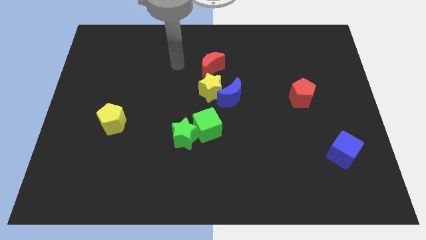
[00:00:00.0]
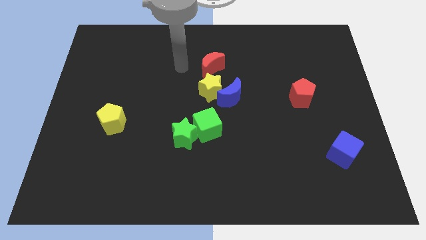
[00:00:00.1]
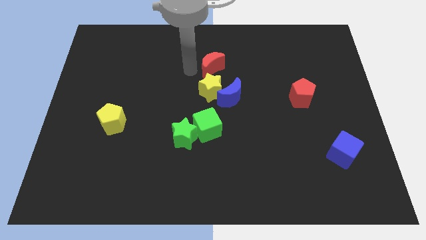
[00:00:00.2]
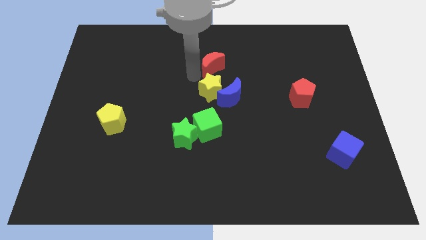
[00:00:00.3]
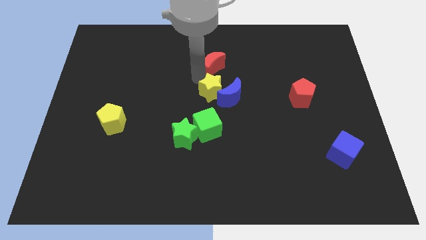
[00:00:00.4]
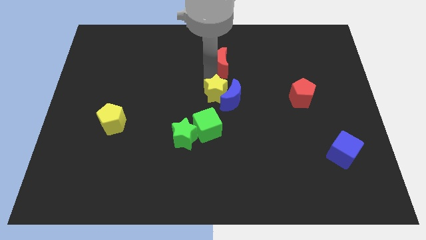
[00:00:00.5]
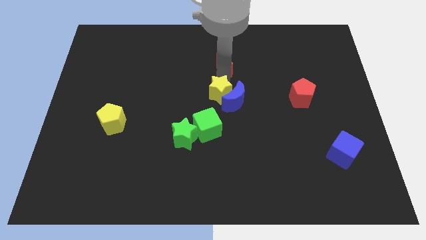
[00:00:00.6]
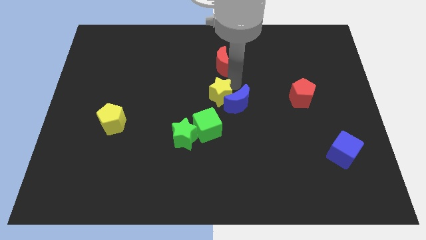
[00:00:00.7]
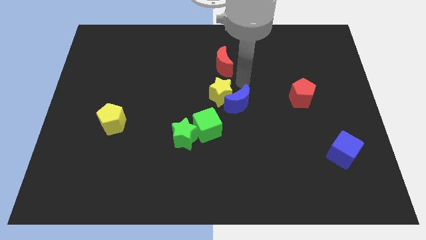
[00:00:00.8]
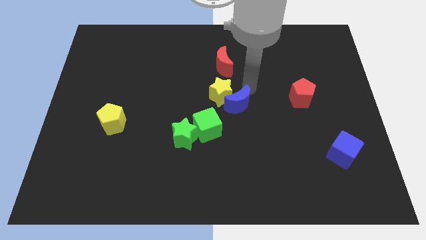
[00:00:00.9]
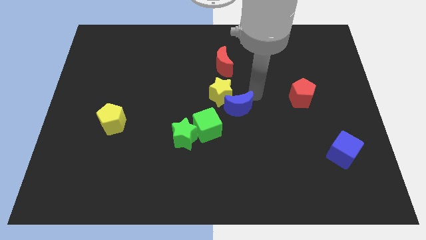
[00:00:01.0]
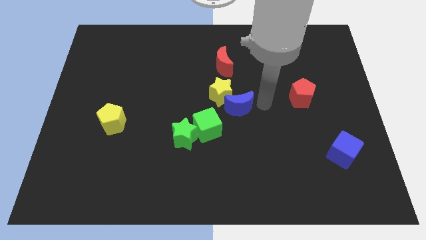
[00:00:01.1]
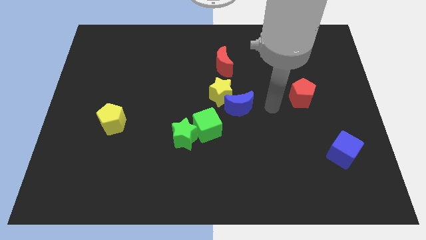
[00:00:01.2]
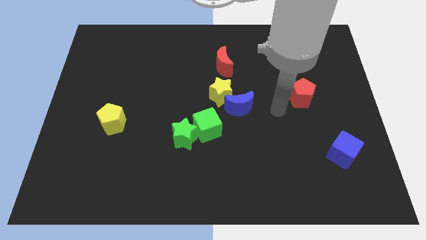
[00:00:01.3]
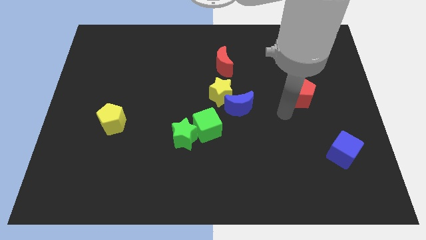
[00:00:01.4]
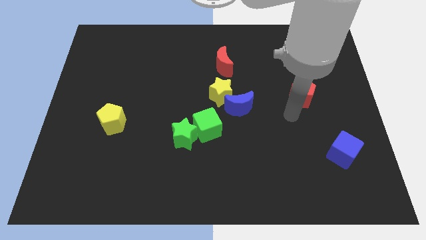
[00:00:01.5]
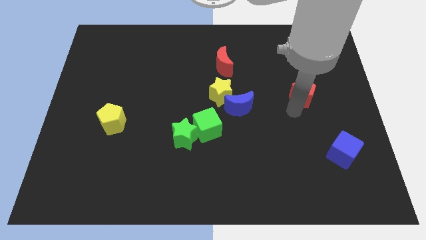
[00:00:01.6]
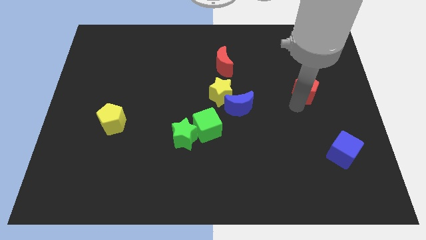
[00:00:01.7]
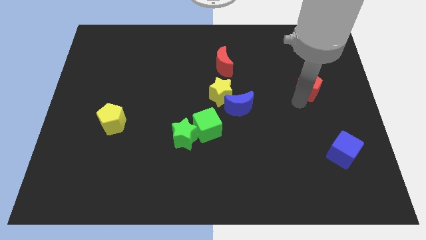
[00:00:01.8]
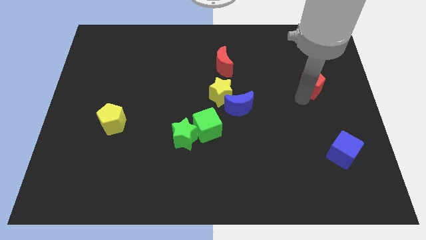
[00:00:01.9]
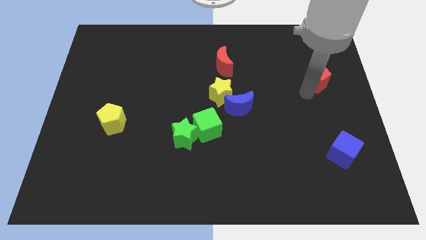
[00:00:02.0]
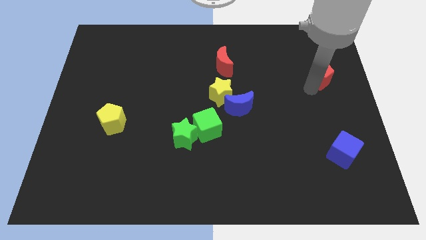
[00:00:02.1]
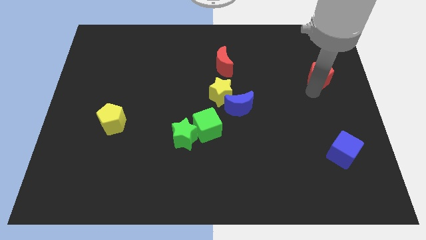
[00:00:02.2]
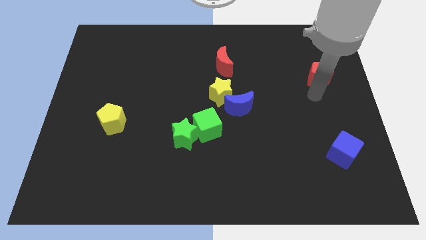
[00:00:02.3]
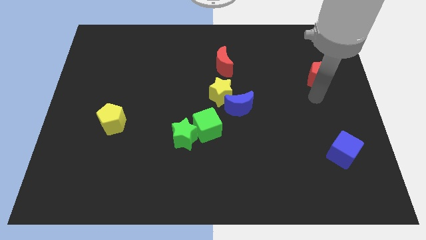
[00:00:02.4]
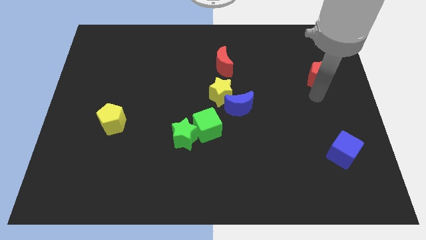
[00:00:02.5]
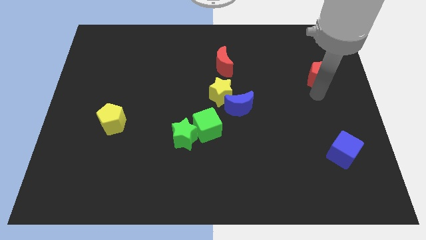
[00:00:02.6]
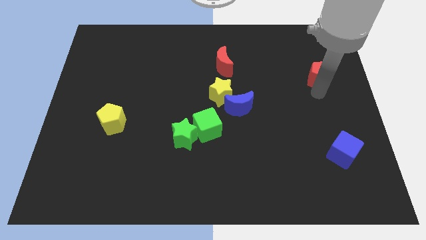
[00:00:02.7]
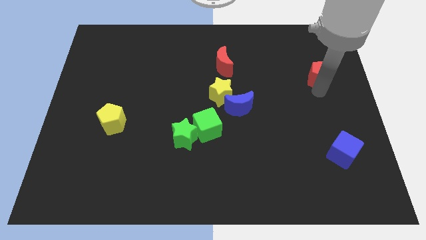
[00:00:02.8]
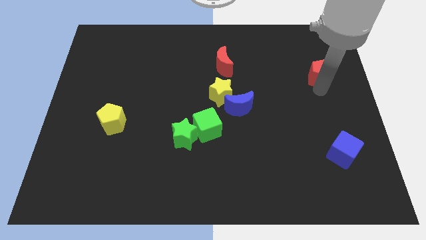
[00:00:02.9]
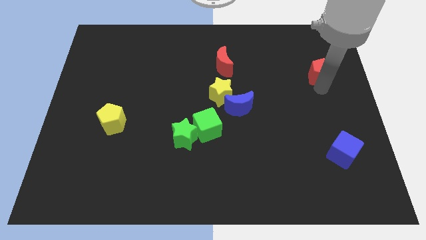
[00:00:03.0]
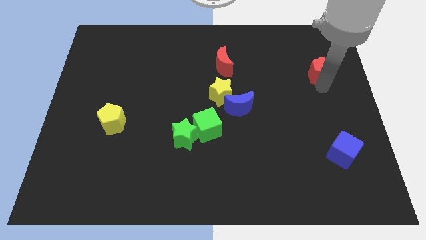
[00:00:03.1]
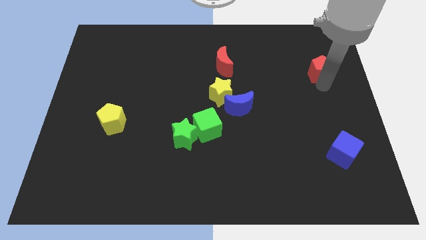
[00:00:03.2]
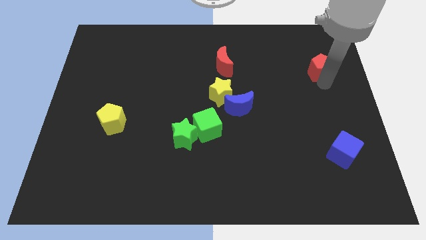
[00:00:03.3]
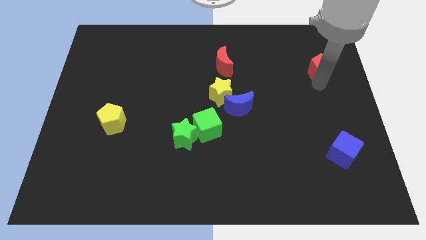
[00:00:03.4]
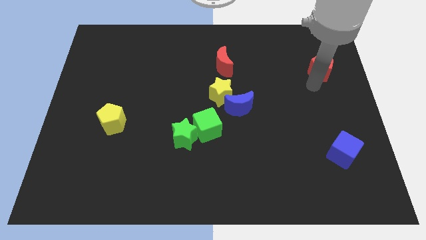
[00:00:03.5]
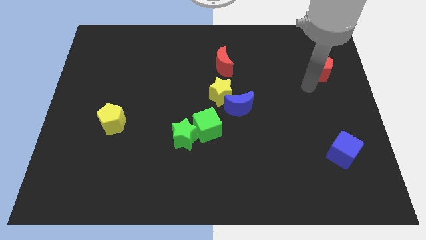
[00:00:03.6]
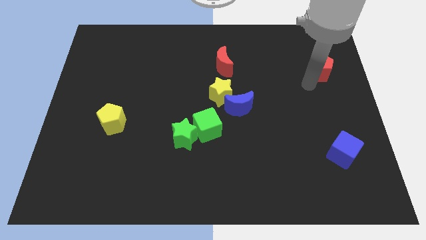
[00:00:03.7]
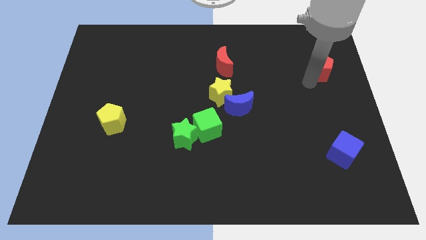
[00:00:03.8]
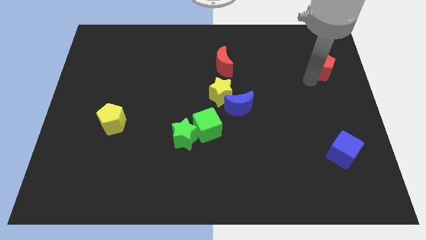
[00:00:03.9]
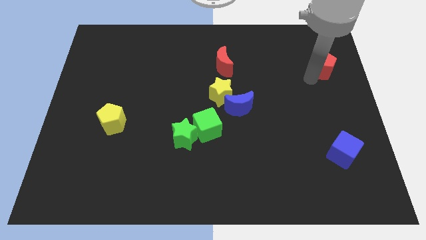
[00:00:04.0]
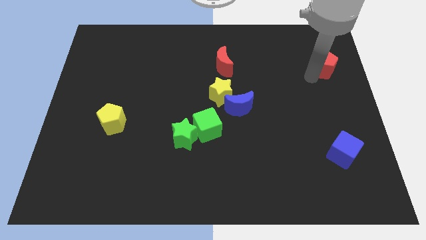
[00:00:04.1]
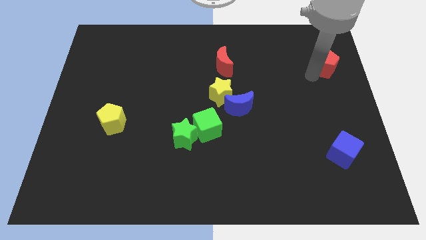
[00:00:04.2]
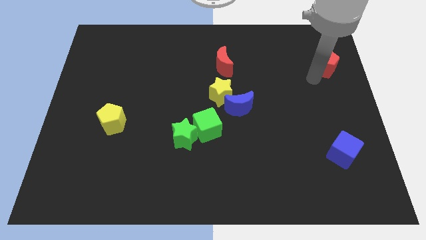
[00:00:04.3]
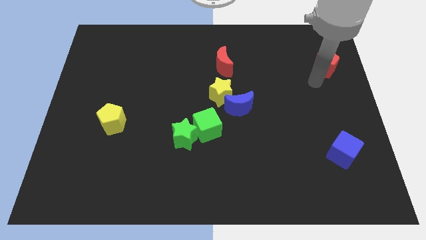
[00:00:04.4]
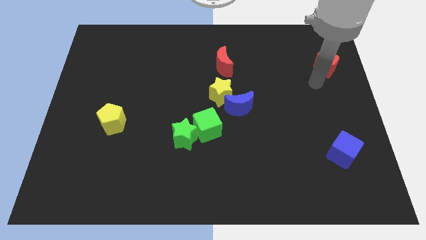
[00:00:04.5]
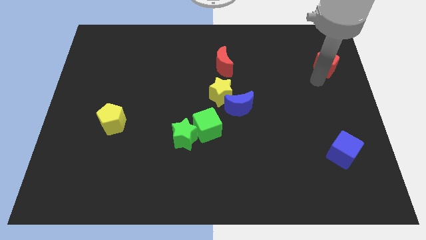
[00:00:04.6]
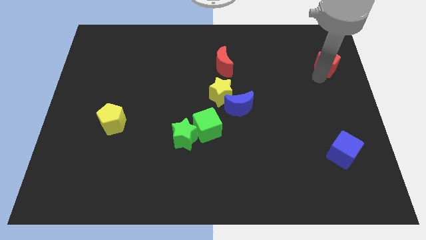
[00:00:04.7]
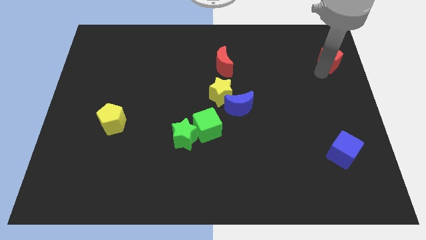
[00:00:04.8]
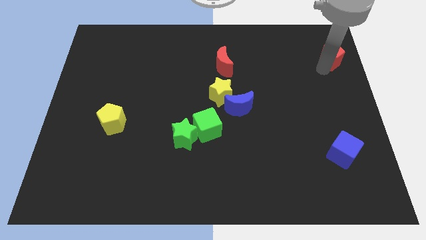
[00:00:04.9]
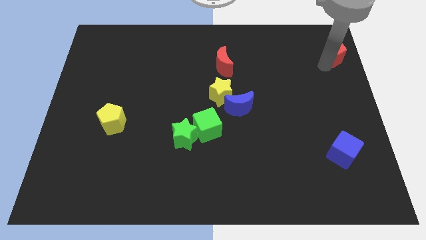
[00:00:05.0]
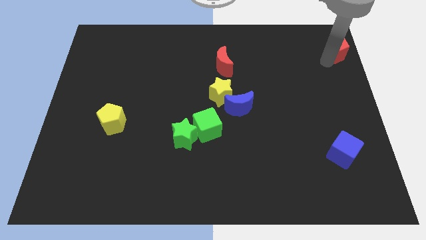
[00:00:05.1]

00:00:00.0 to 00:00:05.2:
push the red pentagon to the top right

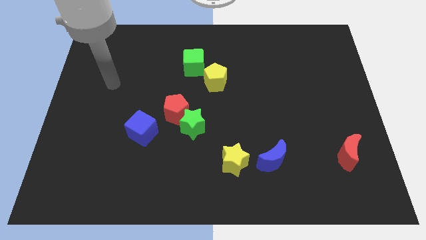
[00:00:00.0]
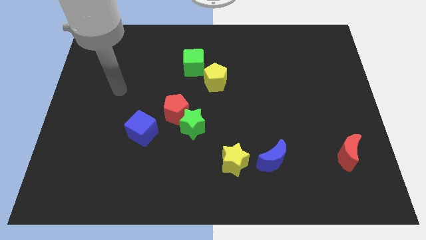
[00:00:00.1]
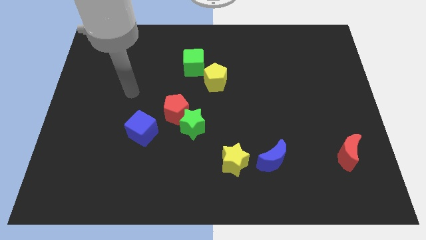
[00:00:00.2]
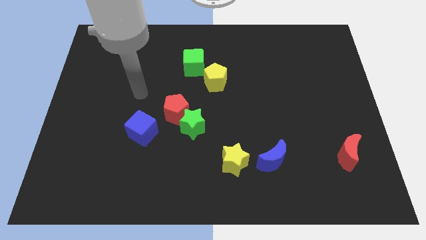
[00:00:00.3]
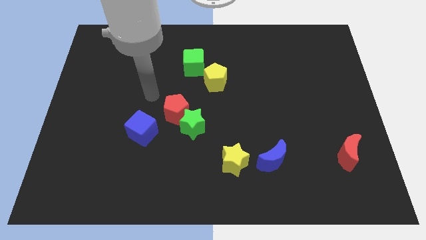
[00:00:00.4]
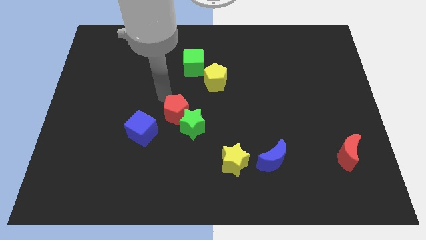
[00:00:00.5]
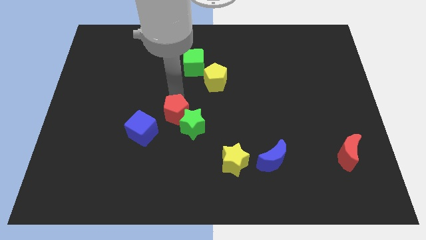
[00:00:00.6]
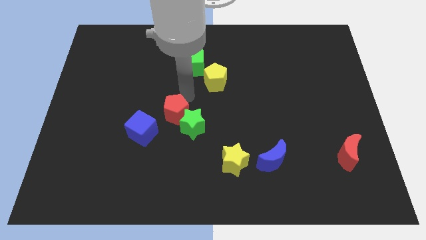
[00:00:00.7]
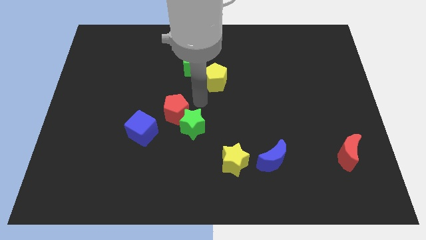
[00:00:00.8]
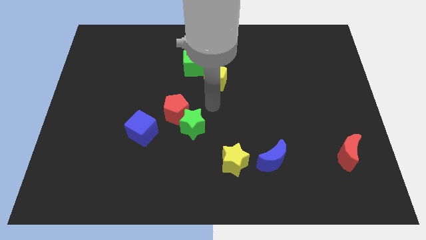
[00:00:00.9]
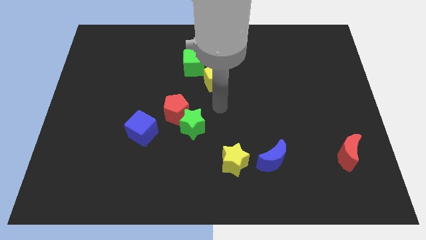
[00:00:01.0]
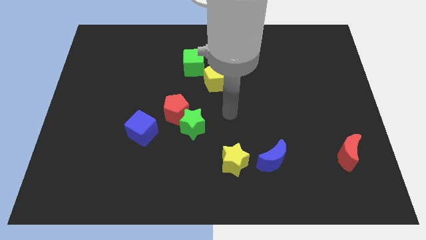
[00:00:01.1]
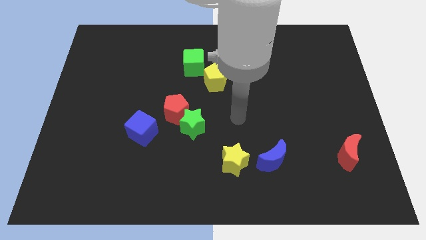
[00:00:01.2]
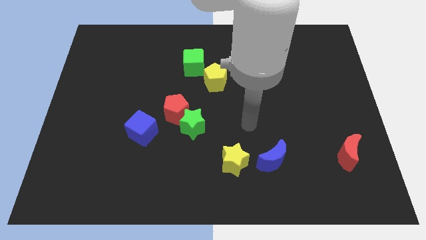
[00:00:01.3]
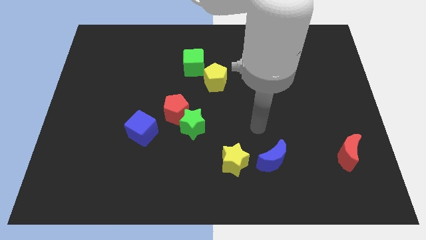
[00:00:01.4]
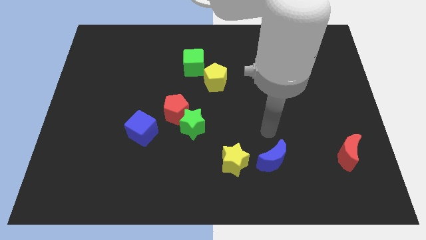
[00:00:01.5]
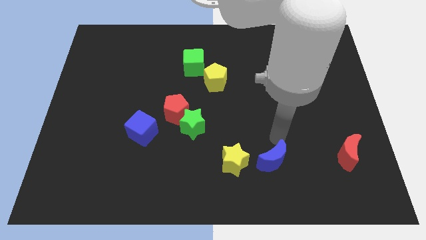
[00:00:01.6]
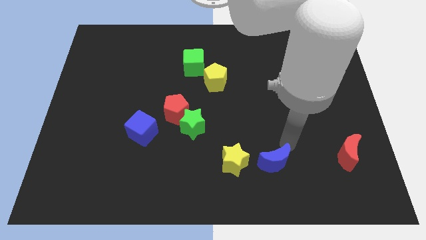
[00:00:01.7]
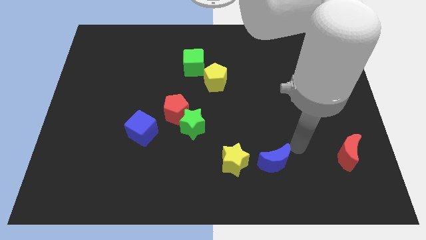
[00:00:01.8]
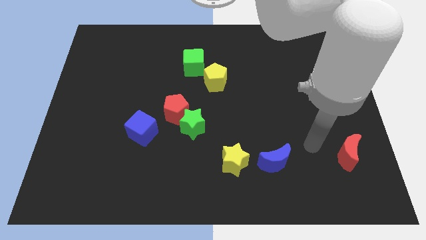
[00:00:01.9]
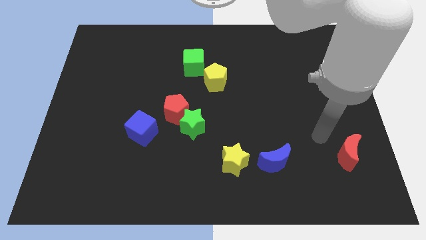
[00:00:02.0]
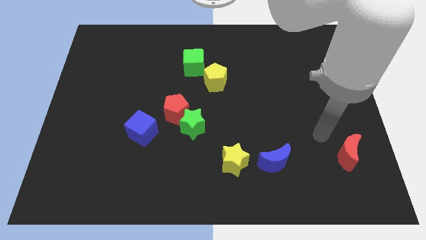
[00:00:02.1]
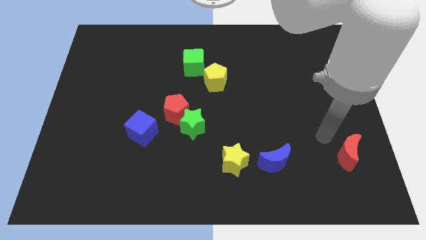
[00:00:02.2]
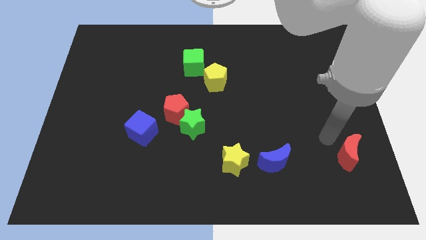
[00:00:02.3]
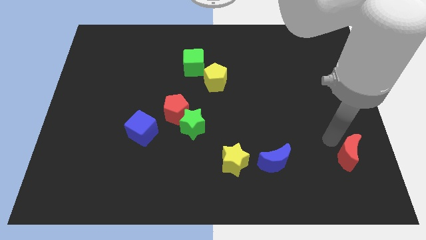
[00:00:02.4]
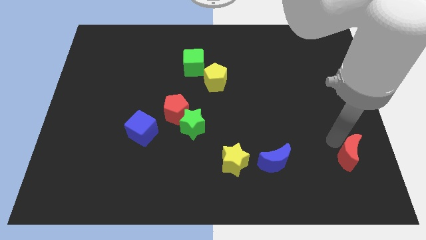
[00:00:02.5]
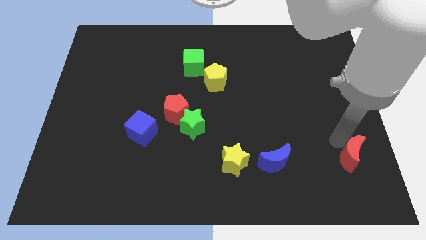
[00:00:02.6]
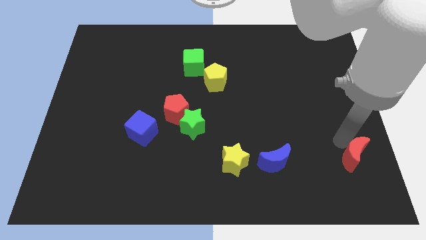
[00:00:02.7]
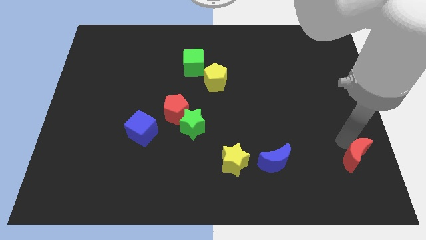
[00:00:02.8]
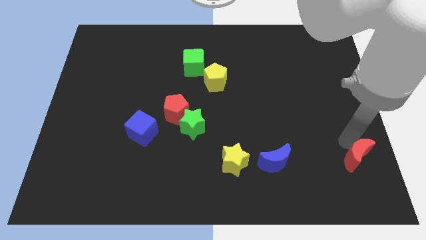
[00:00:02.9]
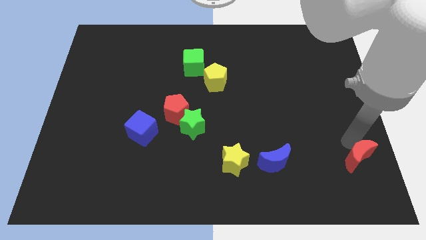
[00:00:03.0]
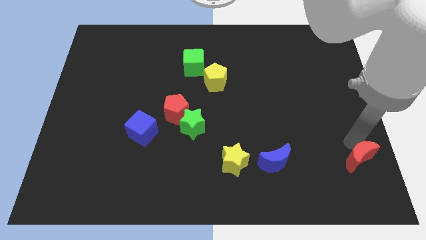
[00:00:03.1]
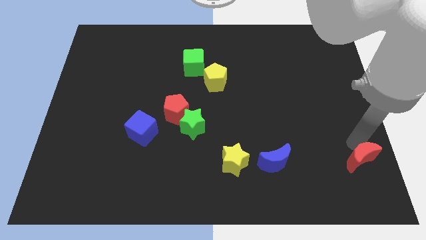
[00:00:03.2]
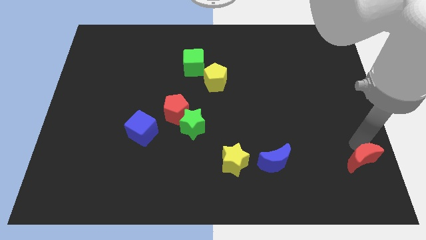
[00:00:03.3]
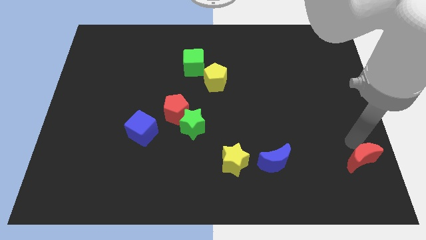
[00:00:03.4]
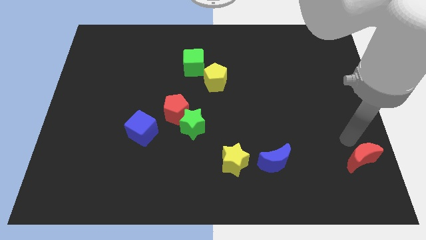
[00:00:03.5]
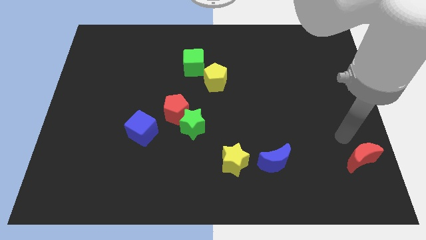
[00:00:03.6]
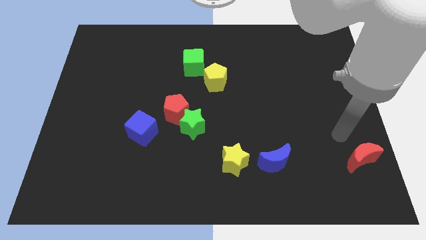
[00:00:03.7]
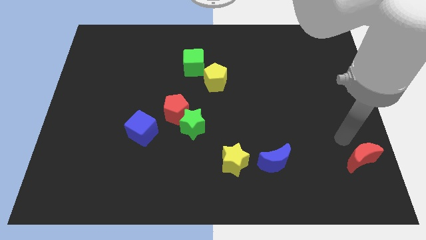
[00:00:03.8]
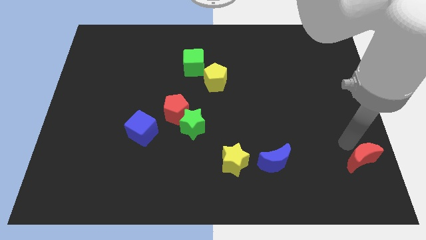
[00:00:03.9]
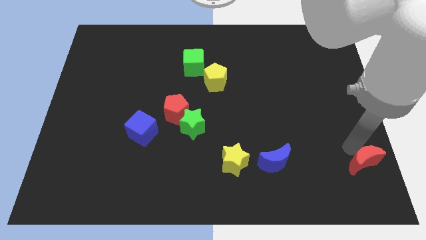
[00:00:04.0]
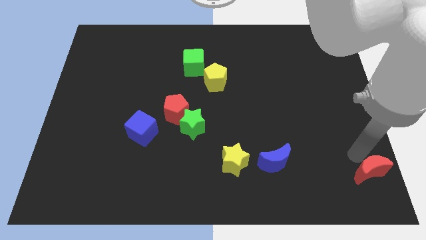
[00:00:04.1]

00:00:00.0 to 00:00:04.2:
move the red moon to the bottom right
